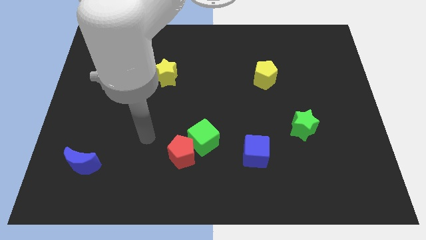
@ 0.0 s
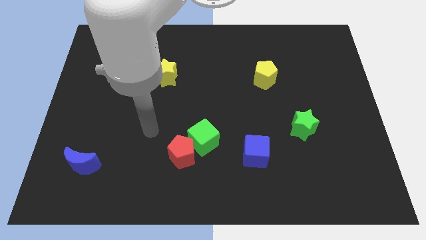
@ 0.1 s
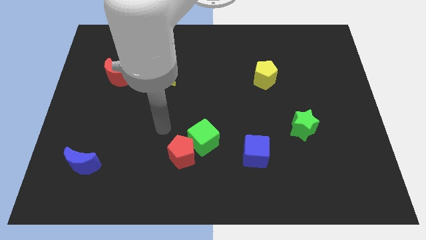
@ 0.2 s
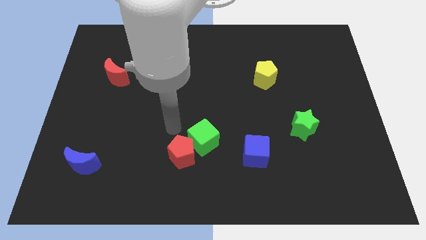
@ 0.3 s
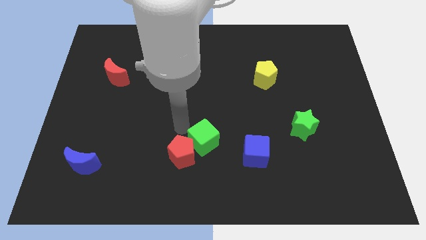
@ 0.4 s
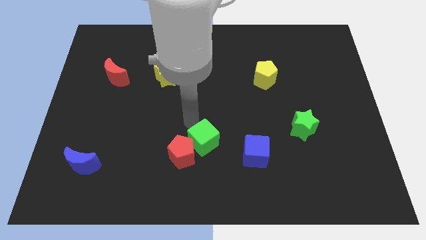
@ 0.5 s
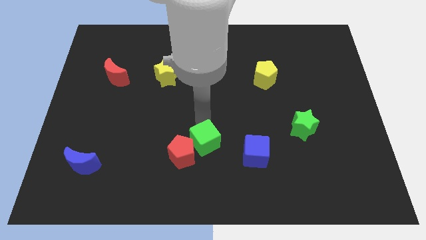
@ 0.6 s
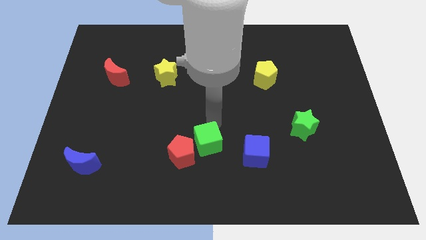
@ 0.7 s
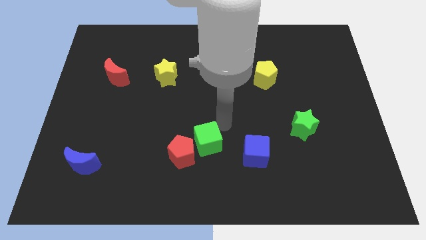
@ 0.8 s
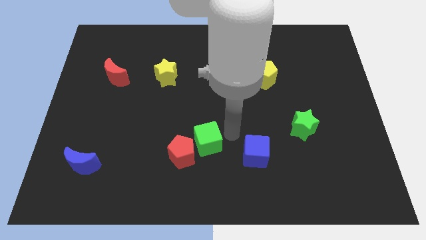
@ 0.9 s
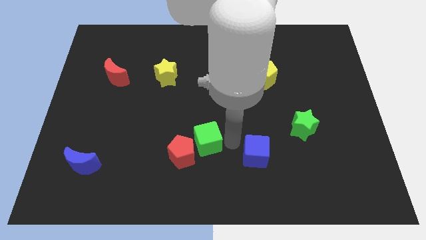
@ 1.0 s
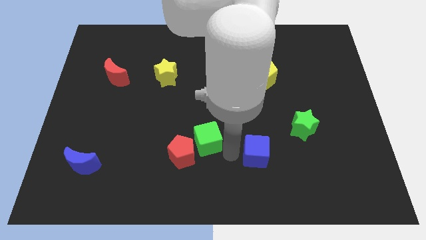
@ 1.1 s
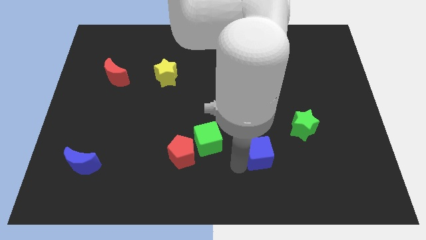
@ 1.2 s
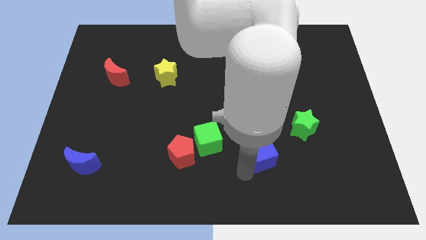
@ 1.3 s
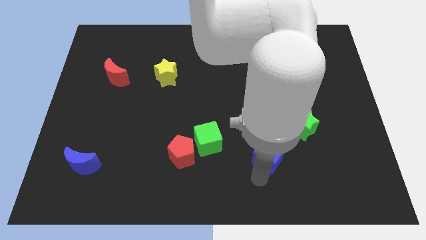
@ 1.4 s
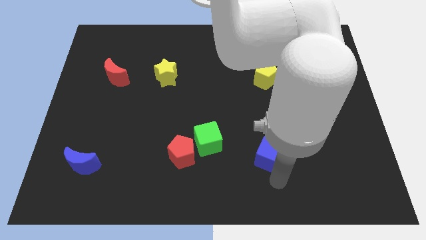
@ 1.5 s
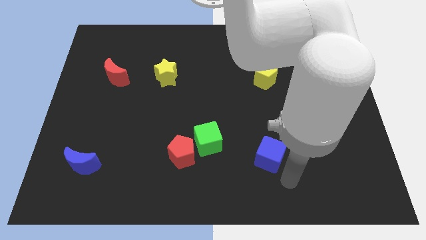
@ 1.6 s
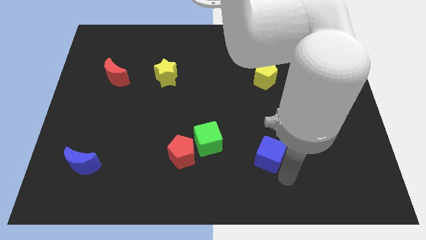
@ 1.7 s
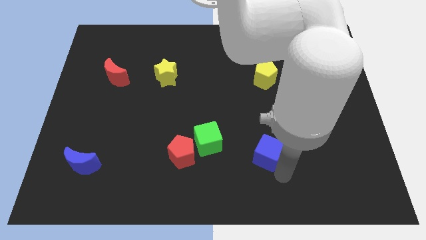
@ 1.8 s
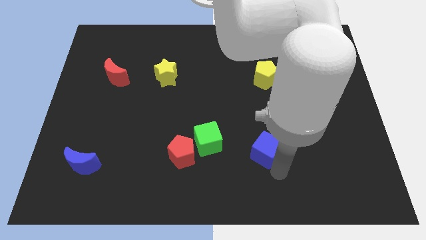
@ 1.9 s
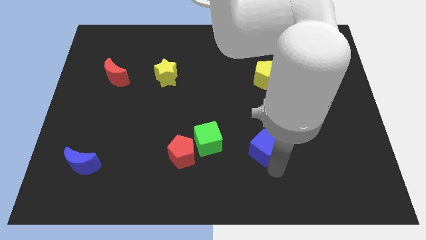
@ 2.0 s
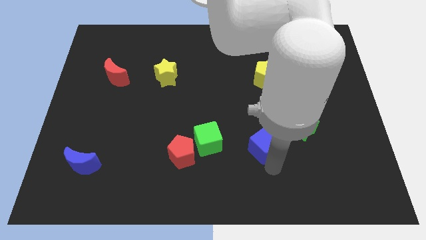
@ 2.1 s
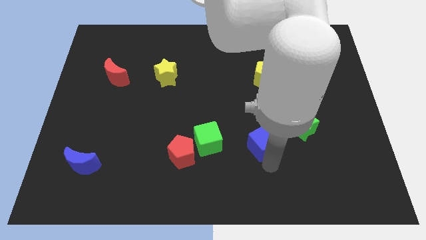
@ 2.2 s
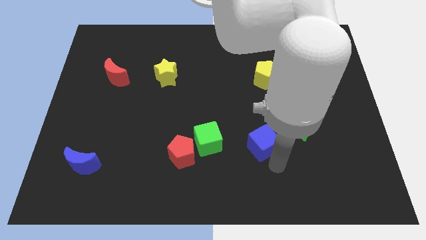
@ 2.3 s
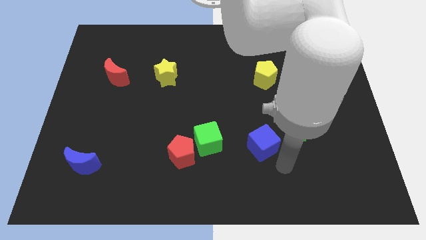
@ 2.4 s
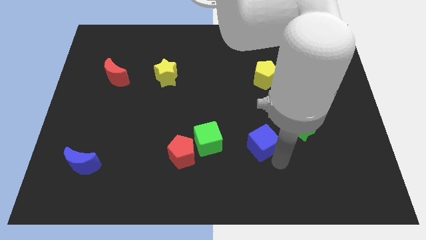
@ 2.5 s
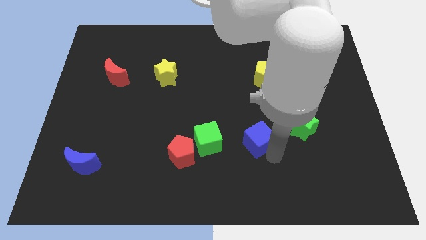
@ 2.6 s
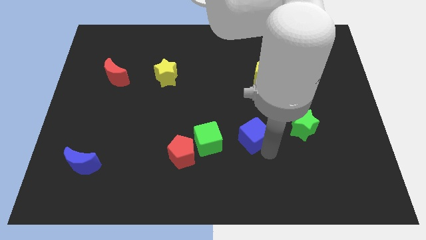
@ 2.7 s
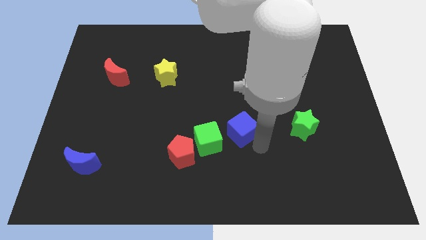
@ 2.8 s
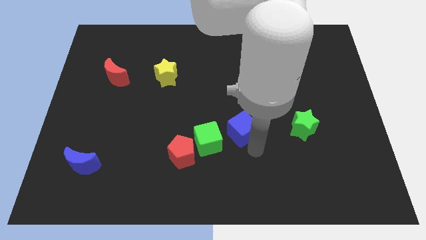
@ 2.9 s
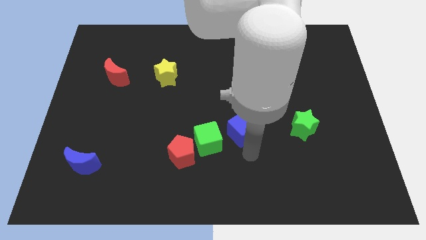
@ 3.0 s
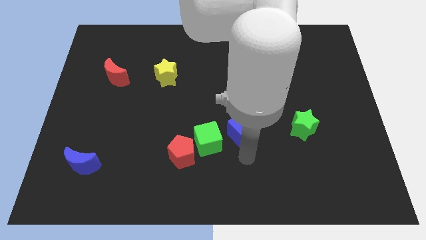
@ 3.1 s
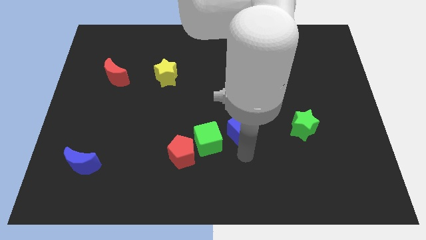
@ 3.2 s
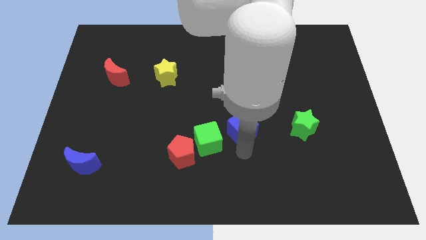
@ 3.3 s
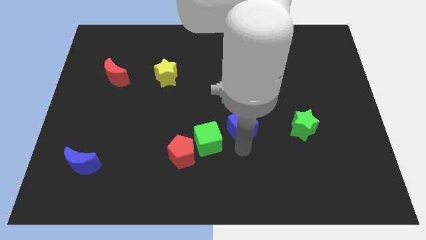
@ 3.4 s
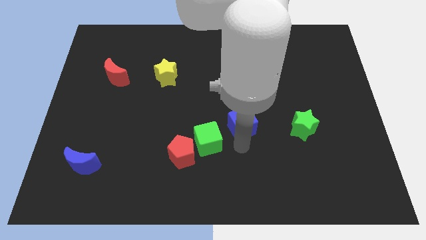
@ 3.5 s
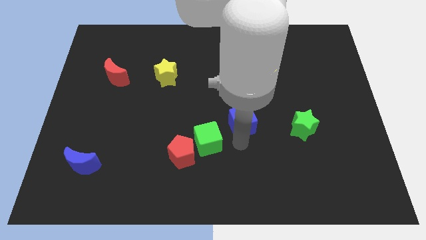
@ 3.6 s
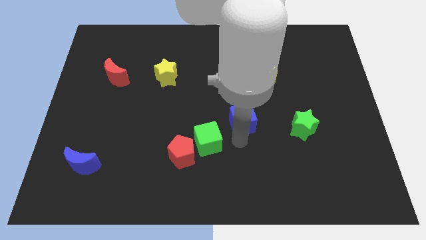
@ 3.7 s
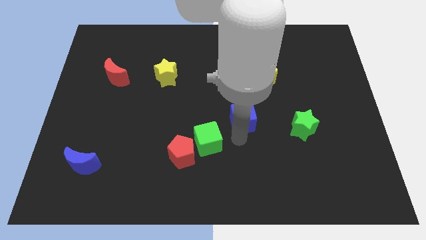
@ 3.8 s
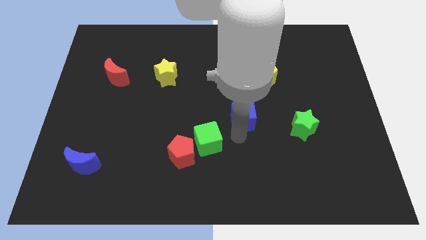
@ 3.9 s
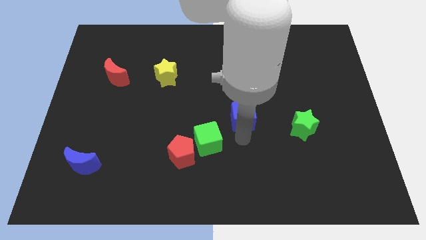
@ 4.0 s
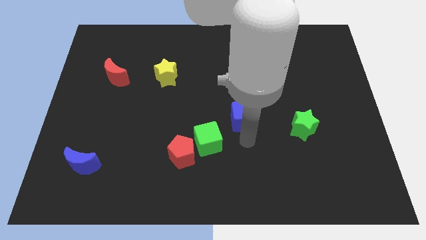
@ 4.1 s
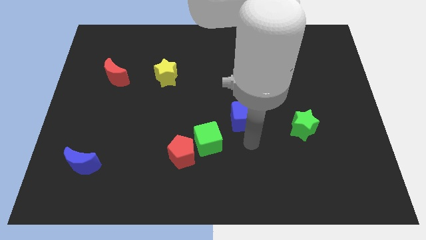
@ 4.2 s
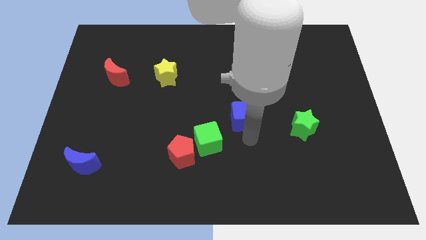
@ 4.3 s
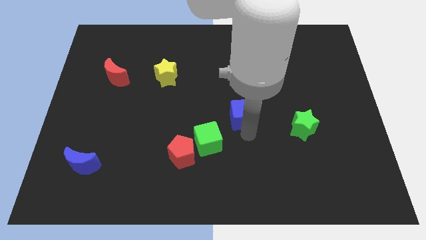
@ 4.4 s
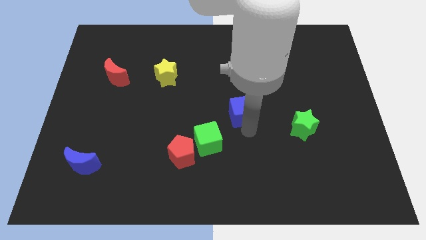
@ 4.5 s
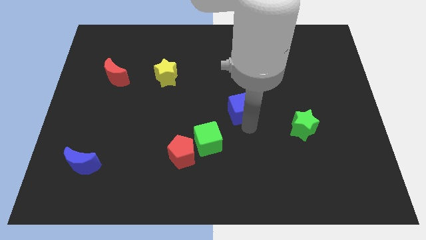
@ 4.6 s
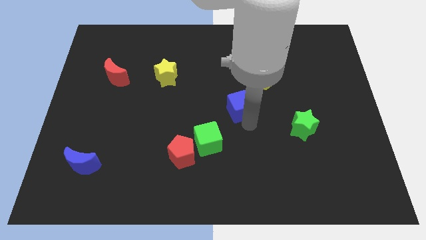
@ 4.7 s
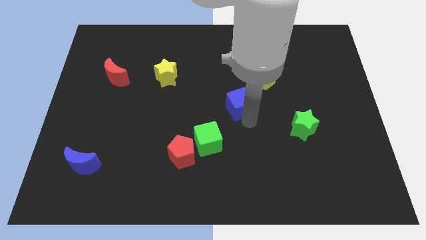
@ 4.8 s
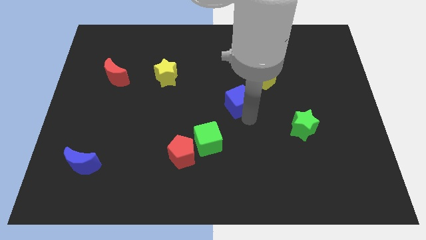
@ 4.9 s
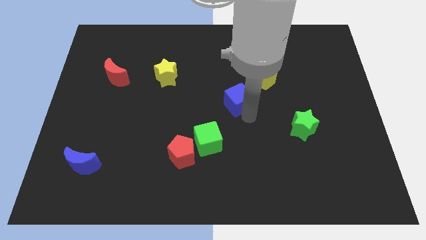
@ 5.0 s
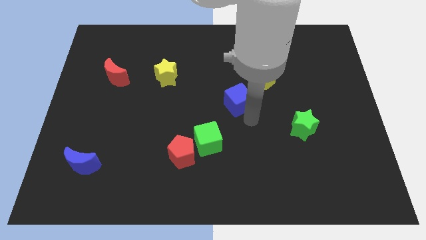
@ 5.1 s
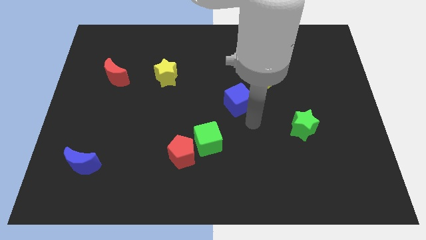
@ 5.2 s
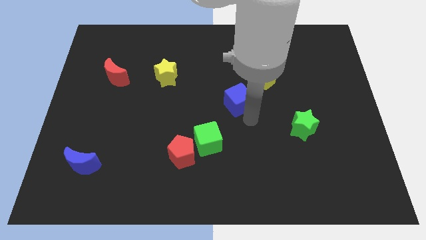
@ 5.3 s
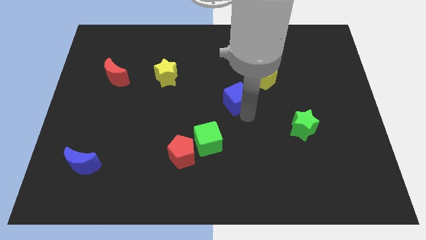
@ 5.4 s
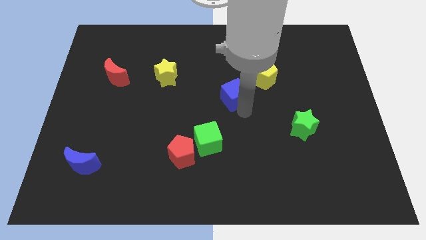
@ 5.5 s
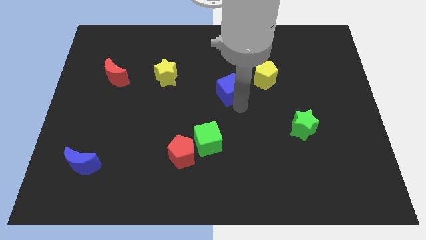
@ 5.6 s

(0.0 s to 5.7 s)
put the blue cube left of the yellow pentagon

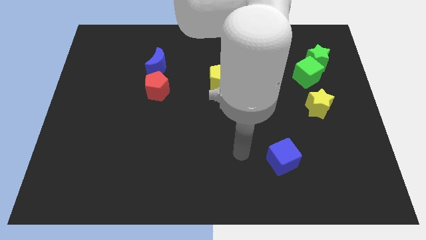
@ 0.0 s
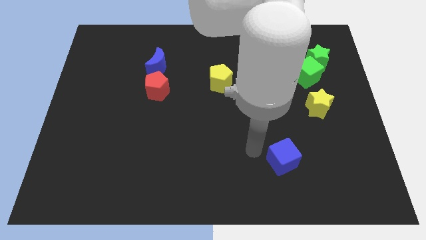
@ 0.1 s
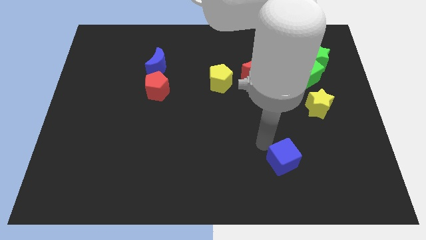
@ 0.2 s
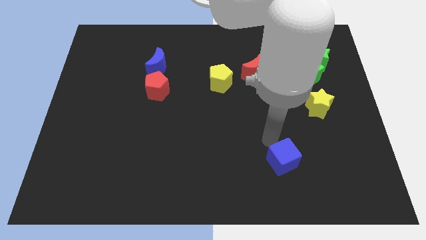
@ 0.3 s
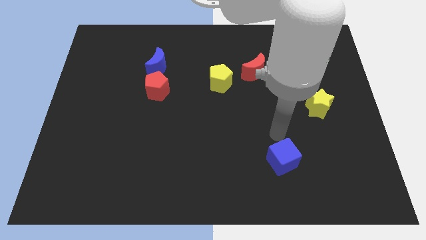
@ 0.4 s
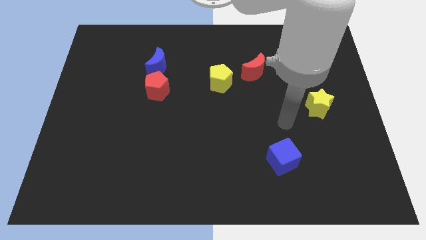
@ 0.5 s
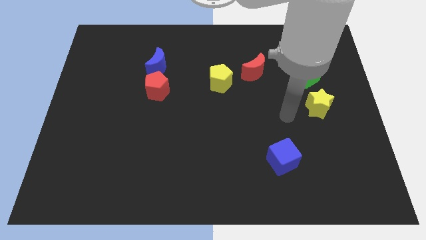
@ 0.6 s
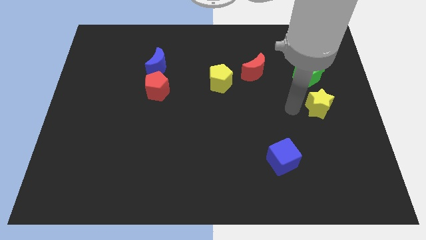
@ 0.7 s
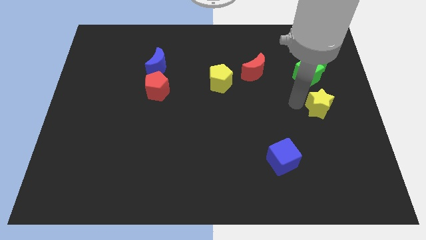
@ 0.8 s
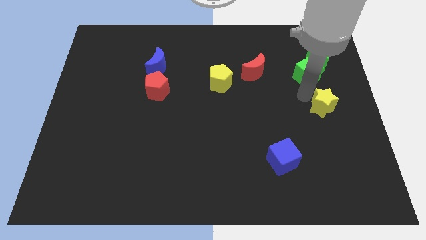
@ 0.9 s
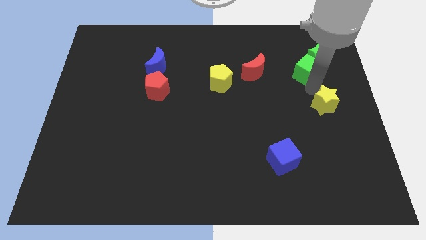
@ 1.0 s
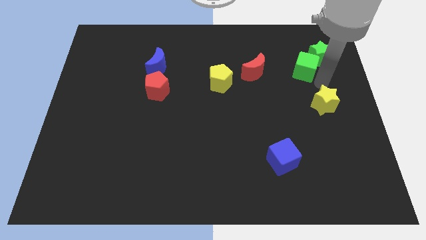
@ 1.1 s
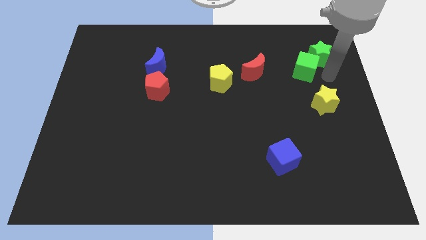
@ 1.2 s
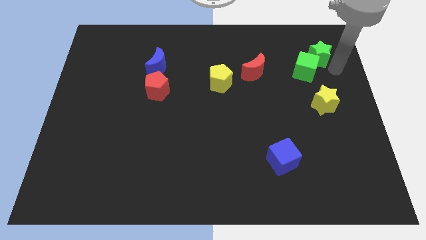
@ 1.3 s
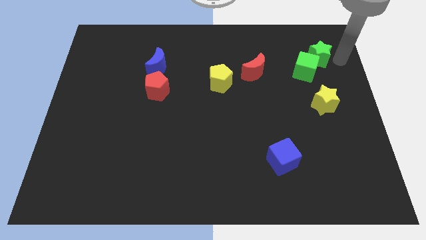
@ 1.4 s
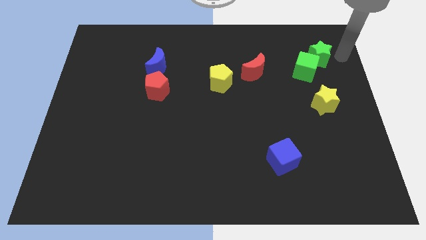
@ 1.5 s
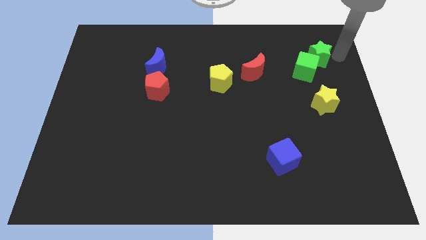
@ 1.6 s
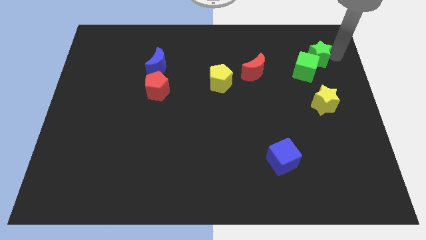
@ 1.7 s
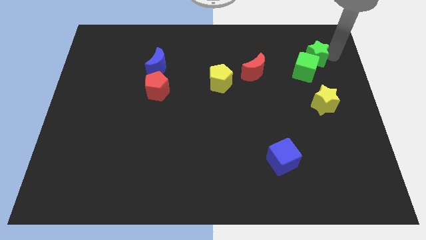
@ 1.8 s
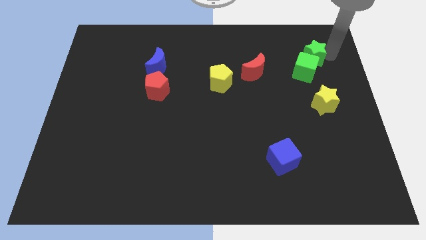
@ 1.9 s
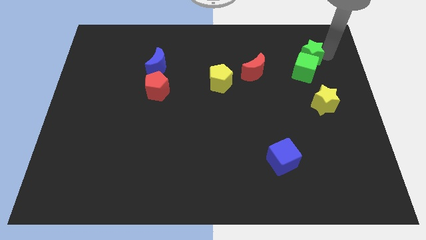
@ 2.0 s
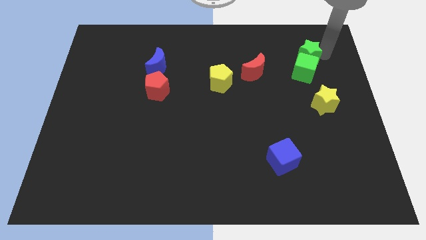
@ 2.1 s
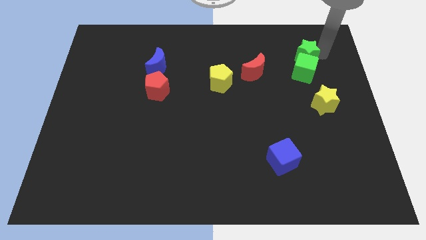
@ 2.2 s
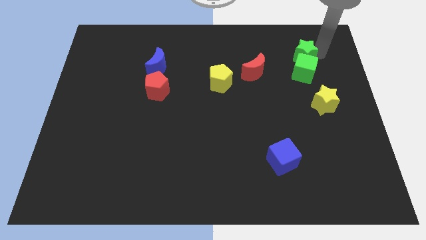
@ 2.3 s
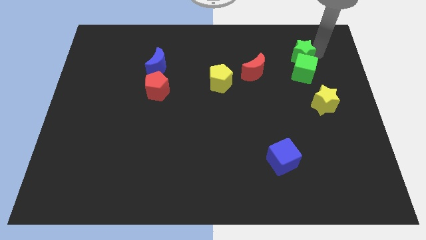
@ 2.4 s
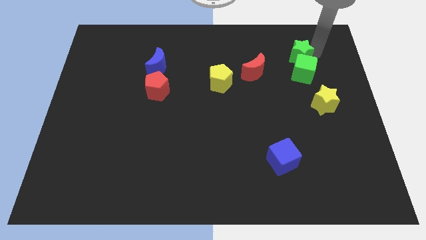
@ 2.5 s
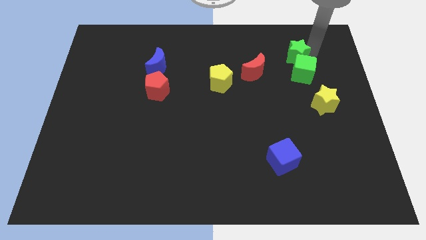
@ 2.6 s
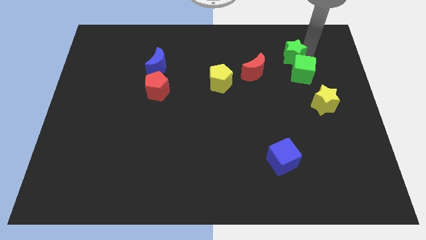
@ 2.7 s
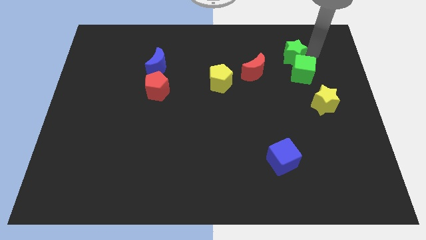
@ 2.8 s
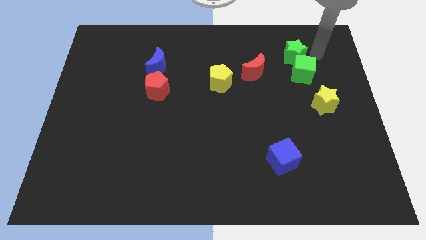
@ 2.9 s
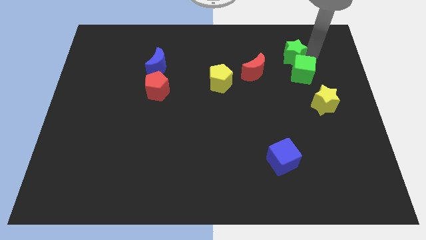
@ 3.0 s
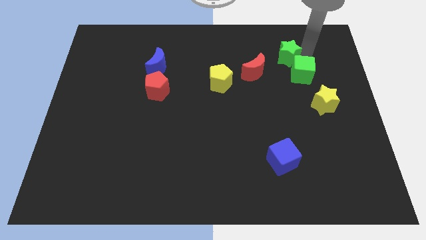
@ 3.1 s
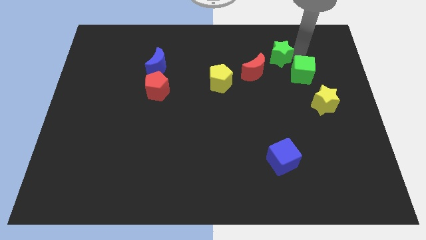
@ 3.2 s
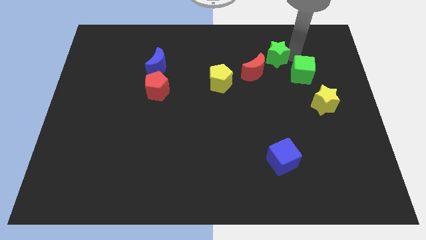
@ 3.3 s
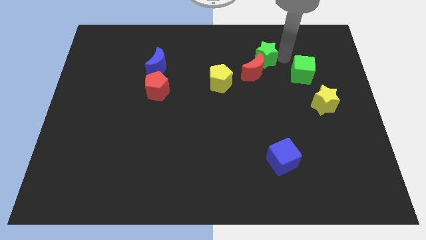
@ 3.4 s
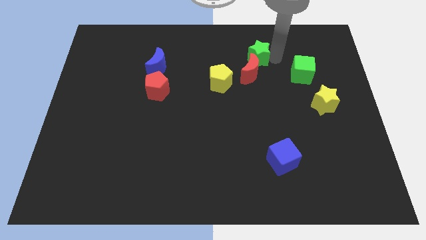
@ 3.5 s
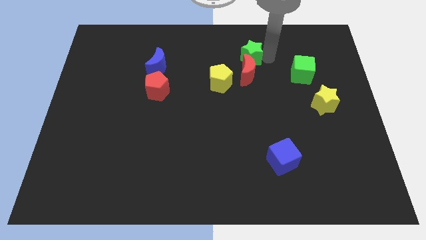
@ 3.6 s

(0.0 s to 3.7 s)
put the green star diagonally up and to the left of the red moon
